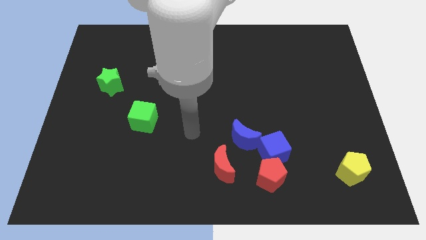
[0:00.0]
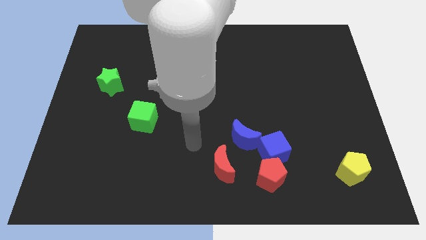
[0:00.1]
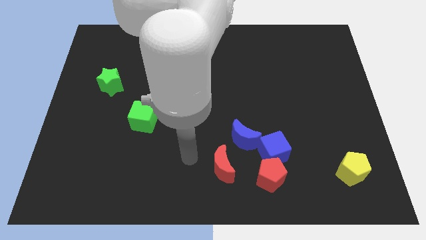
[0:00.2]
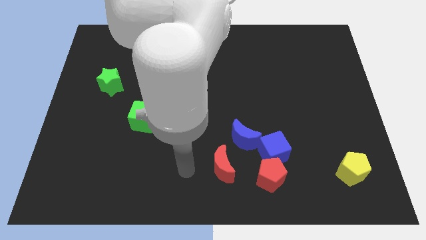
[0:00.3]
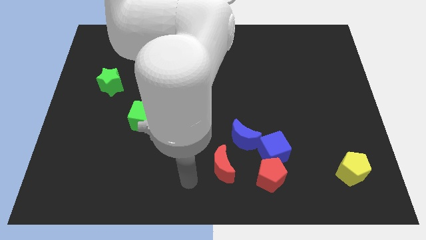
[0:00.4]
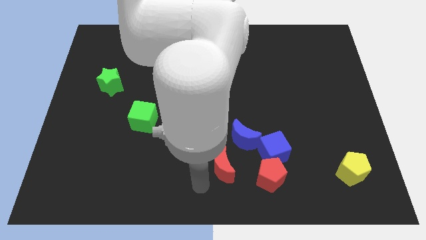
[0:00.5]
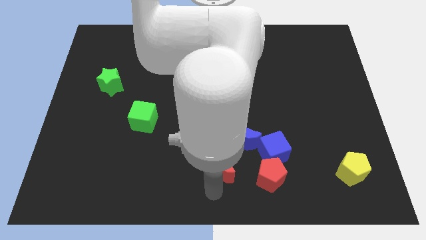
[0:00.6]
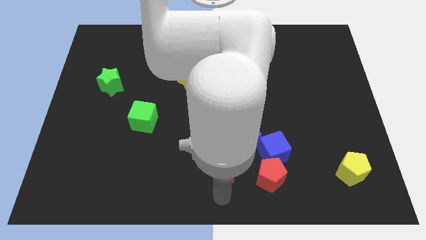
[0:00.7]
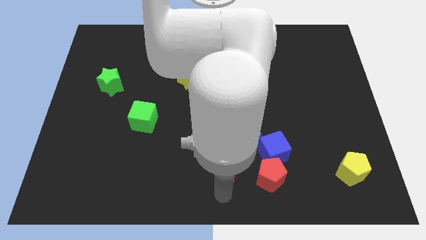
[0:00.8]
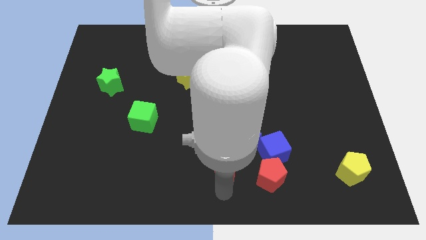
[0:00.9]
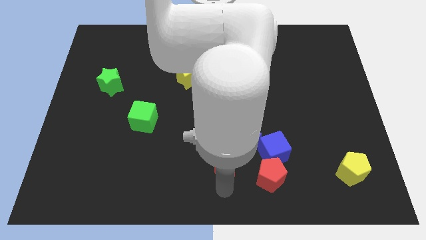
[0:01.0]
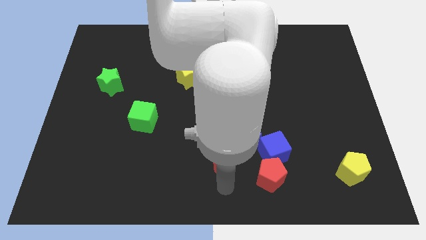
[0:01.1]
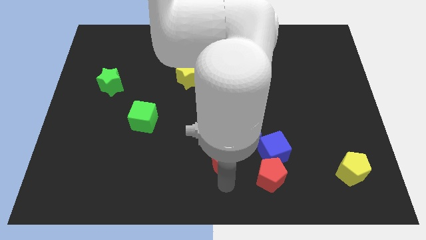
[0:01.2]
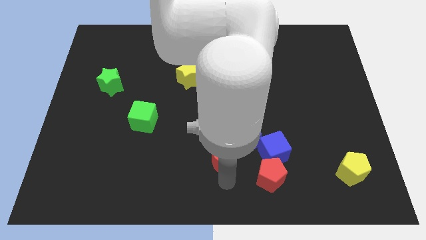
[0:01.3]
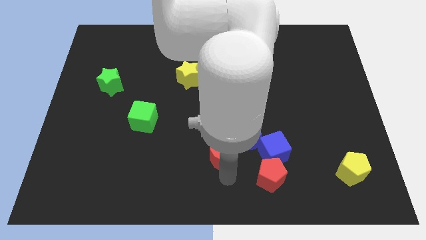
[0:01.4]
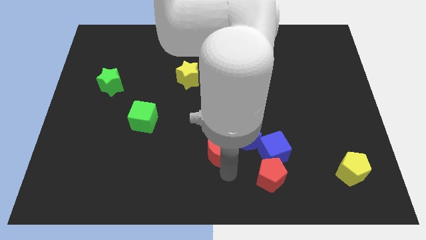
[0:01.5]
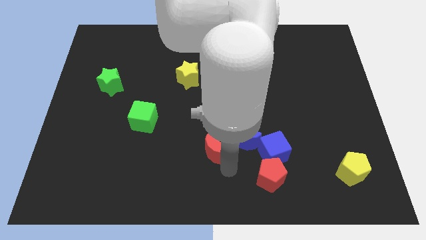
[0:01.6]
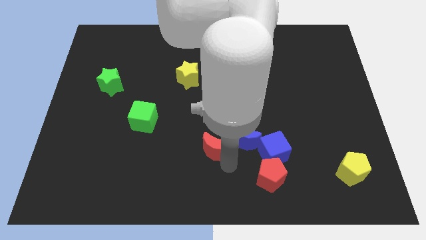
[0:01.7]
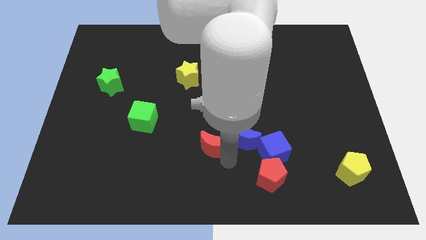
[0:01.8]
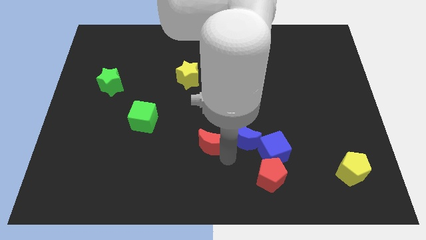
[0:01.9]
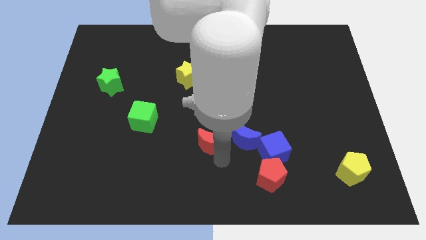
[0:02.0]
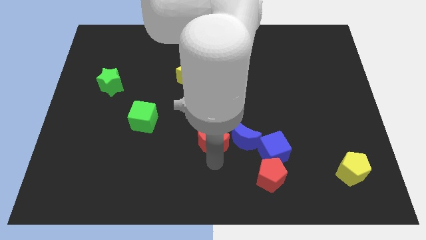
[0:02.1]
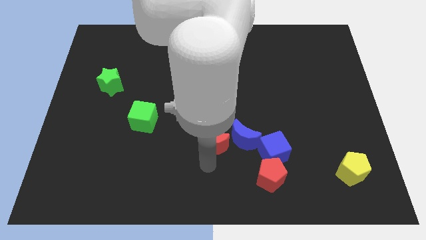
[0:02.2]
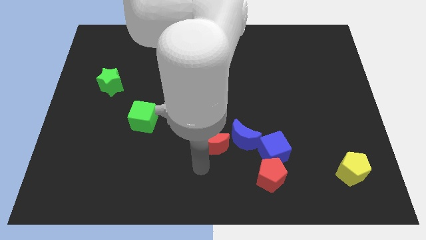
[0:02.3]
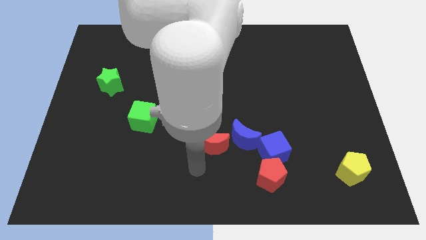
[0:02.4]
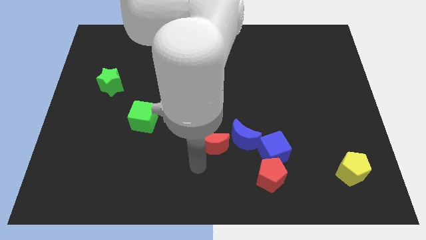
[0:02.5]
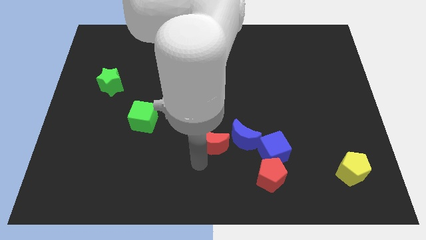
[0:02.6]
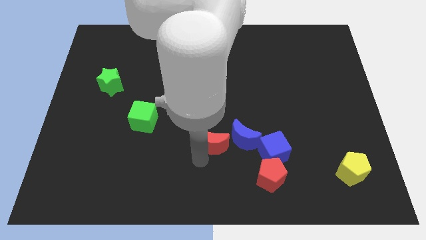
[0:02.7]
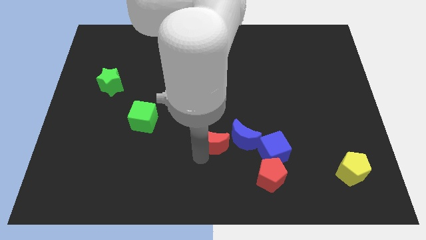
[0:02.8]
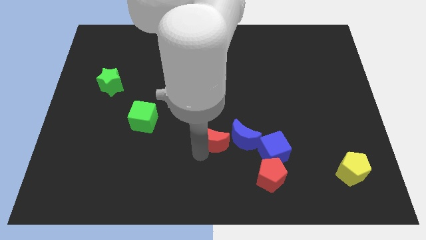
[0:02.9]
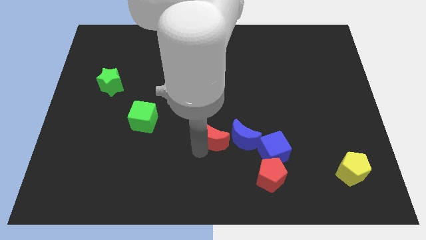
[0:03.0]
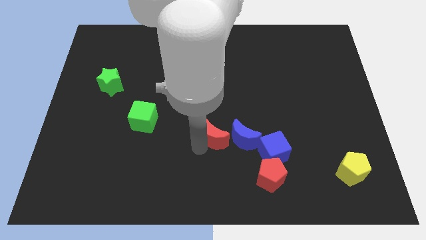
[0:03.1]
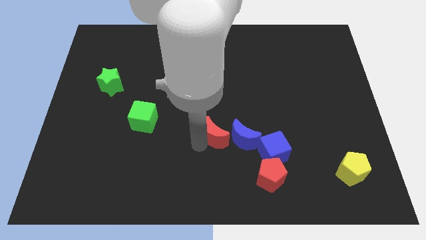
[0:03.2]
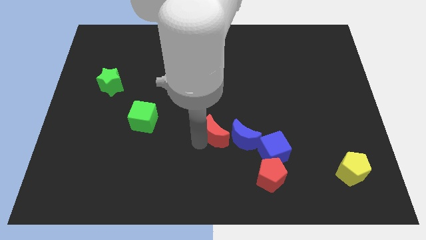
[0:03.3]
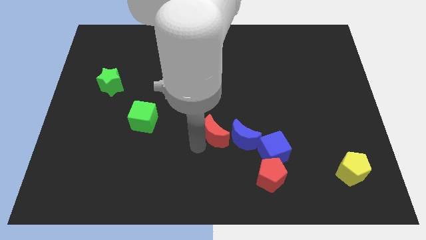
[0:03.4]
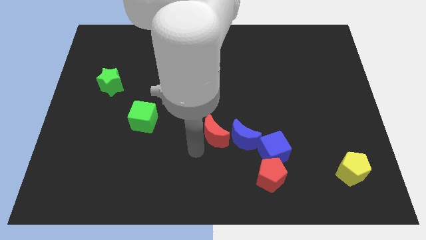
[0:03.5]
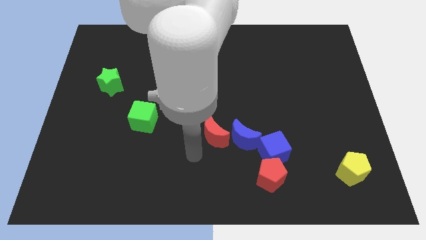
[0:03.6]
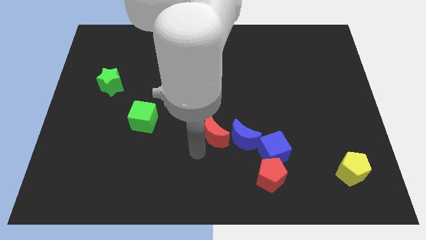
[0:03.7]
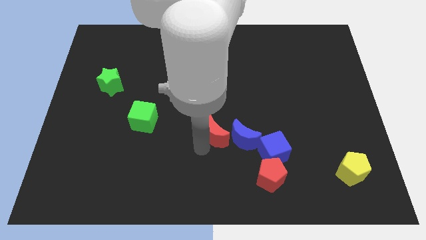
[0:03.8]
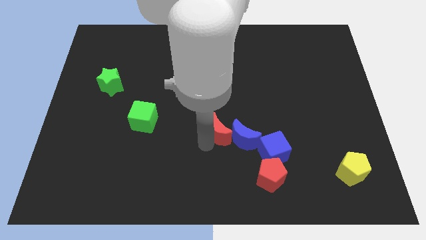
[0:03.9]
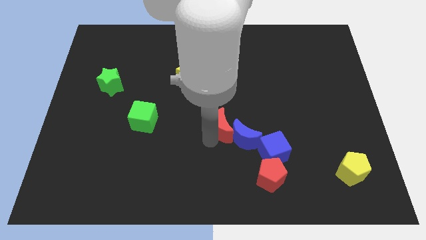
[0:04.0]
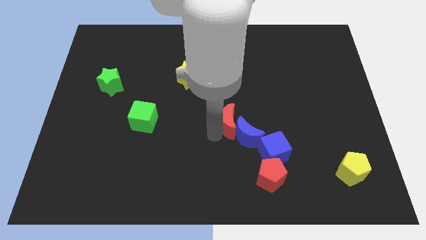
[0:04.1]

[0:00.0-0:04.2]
slightly slide the red moon up and to the right

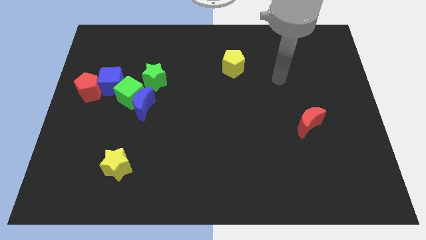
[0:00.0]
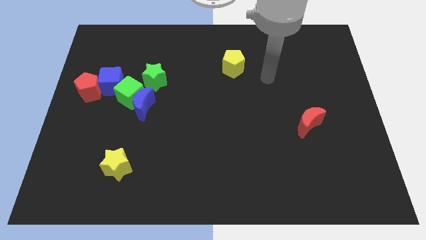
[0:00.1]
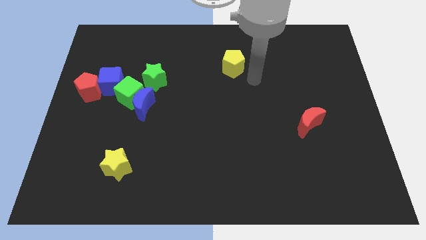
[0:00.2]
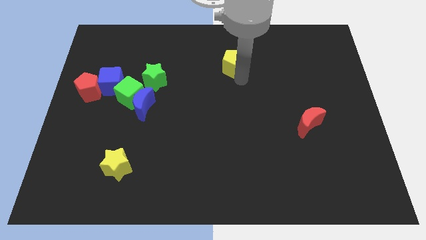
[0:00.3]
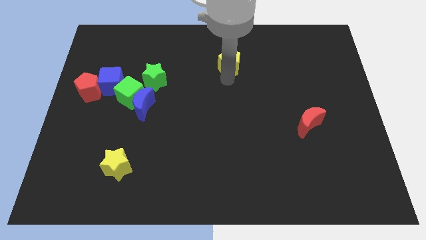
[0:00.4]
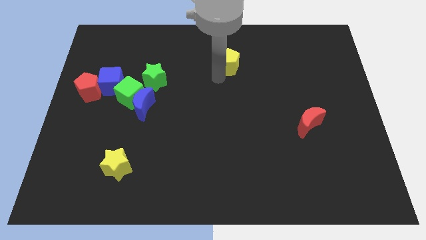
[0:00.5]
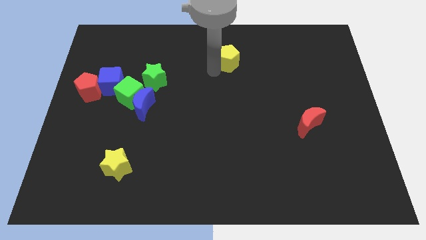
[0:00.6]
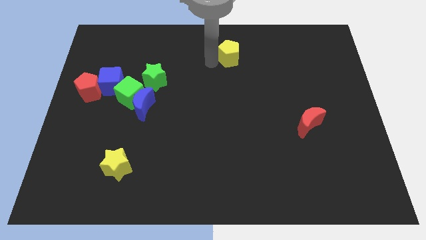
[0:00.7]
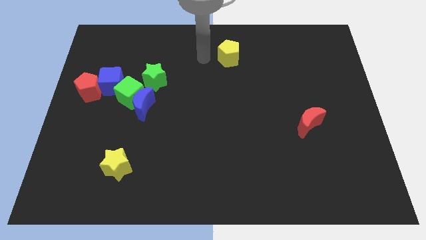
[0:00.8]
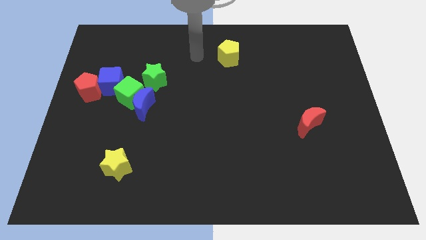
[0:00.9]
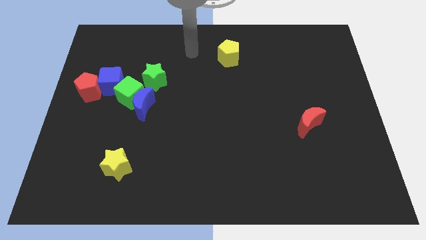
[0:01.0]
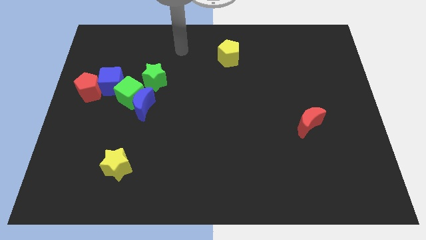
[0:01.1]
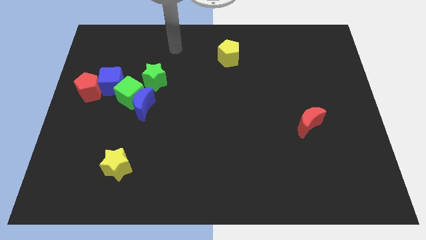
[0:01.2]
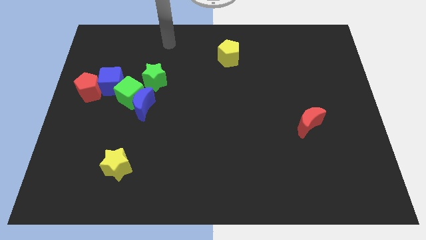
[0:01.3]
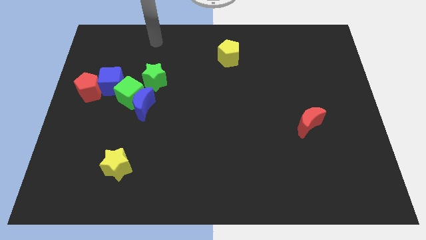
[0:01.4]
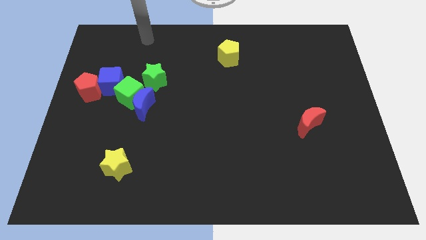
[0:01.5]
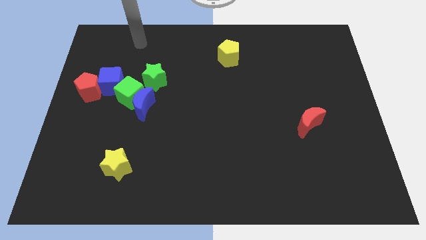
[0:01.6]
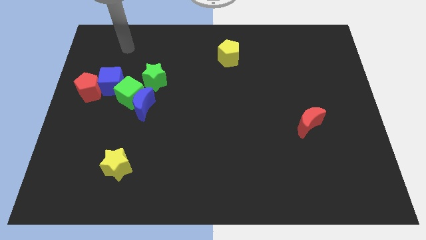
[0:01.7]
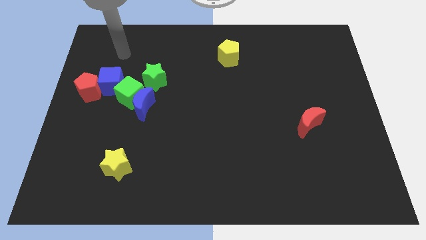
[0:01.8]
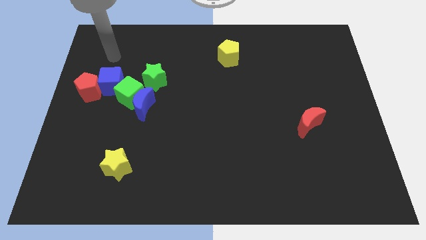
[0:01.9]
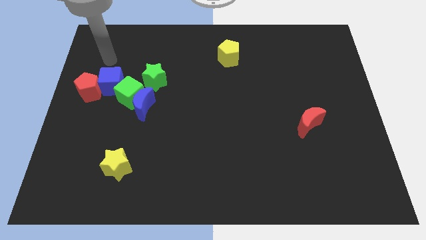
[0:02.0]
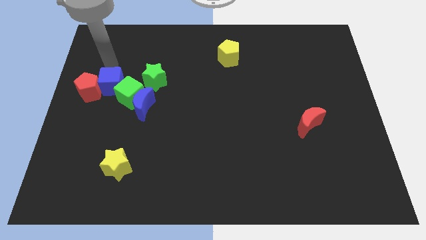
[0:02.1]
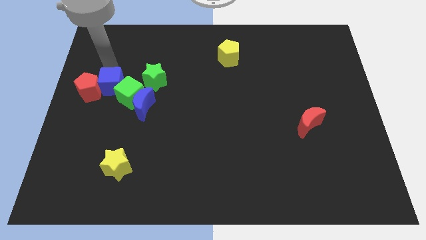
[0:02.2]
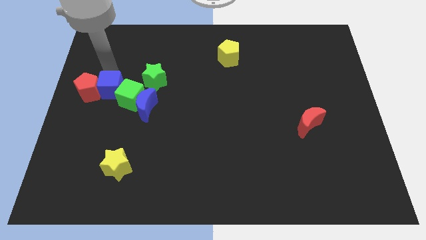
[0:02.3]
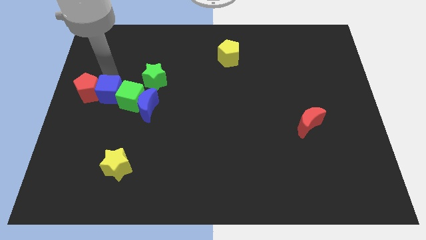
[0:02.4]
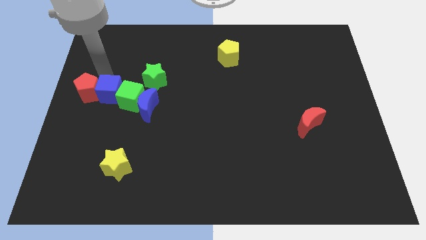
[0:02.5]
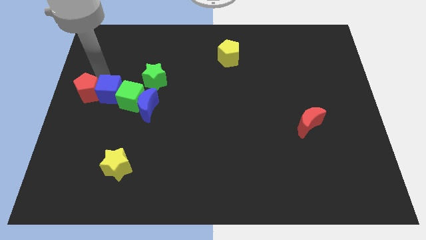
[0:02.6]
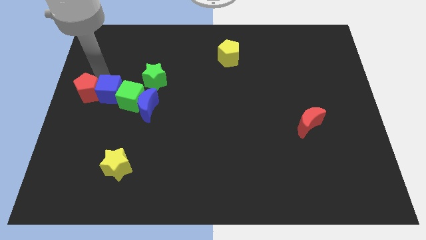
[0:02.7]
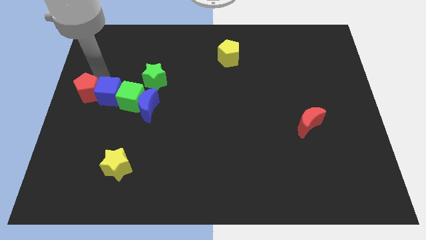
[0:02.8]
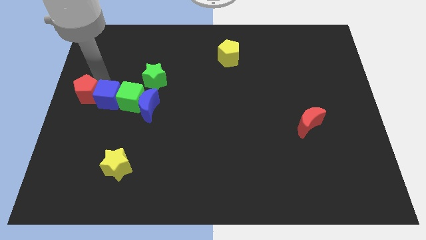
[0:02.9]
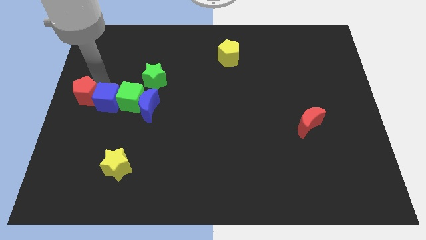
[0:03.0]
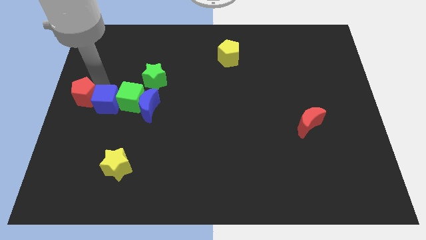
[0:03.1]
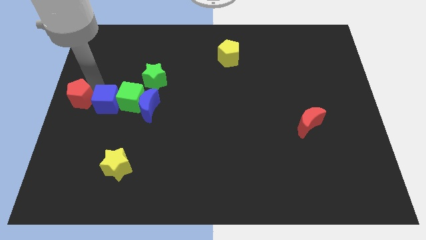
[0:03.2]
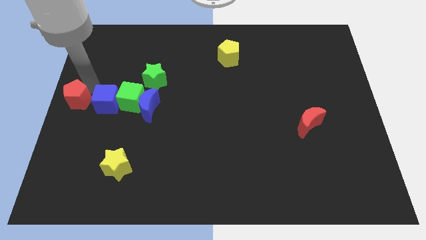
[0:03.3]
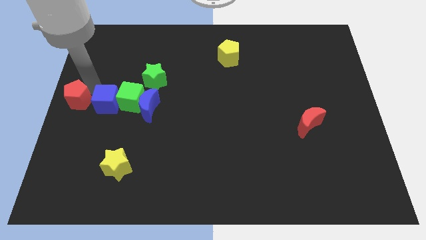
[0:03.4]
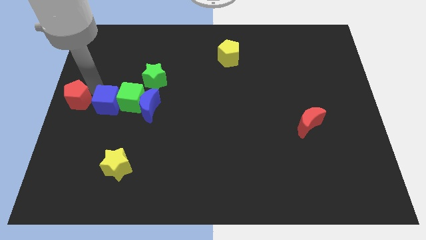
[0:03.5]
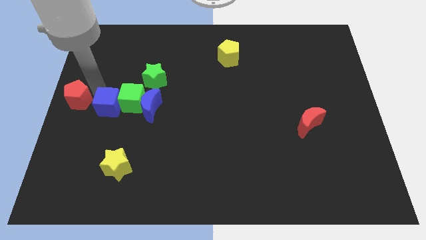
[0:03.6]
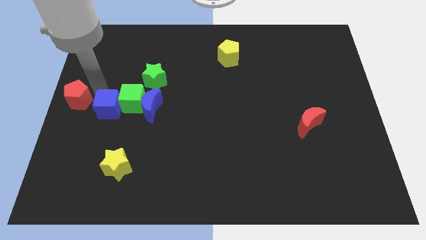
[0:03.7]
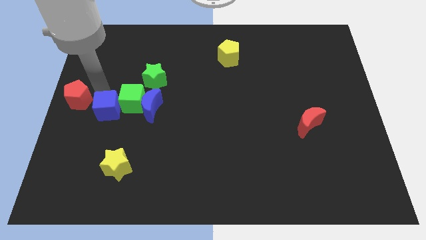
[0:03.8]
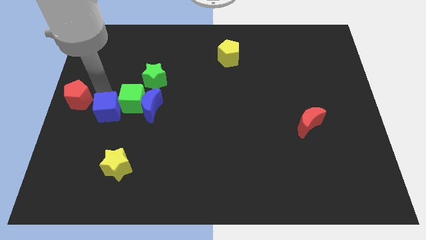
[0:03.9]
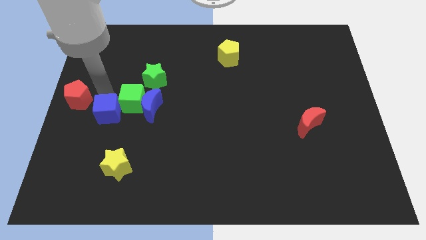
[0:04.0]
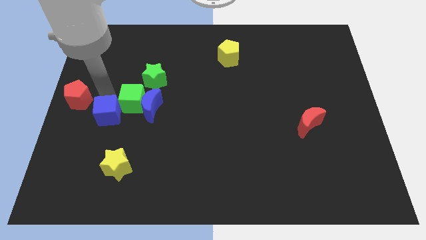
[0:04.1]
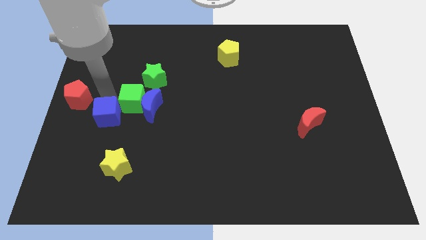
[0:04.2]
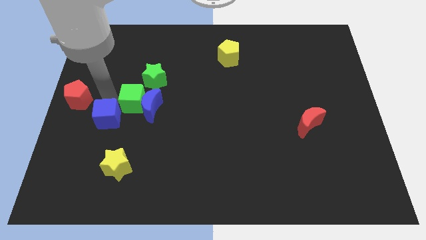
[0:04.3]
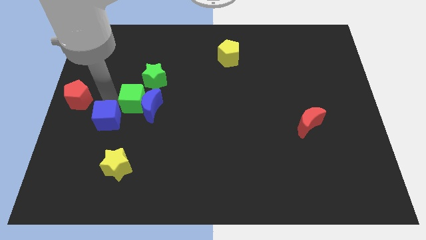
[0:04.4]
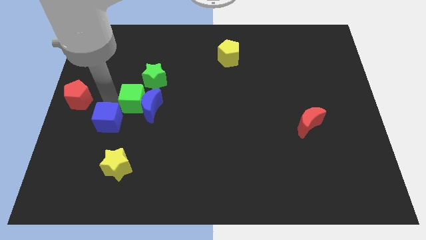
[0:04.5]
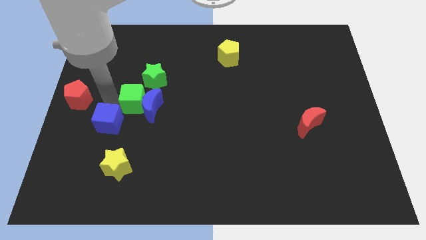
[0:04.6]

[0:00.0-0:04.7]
slightly slide the blue cube downwards and right diagonally
